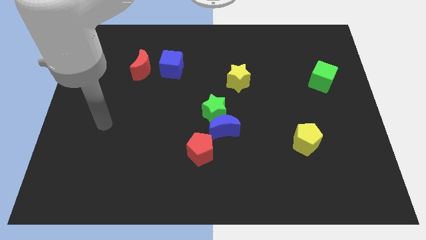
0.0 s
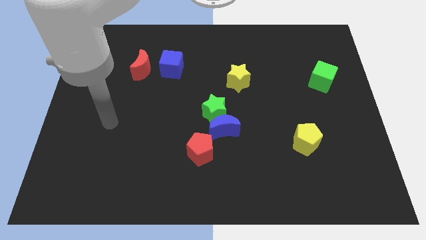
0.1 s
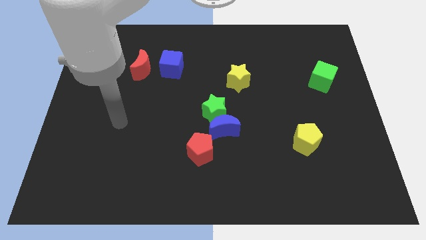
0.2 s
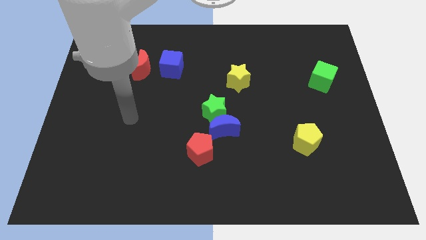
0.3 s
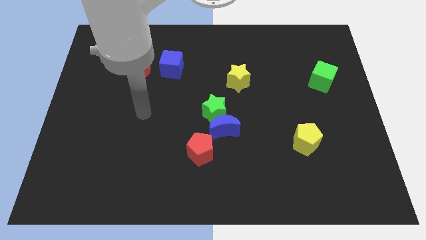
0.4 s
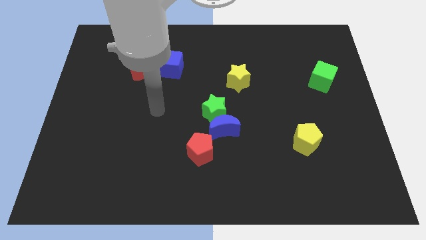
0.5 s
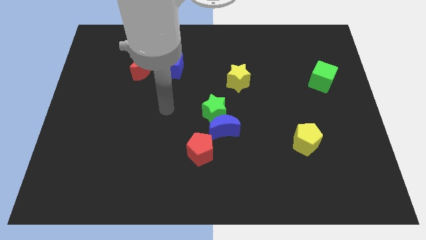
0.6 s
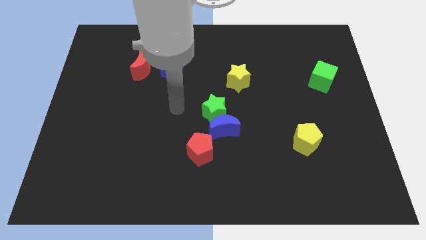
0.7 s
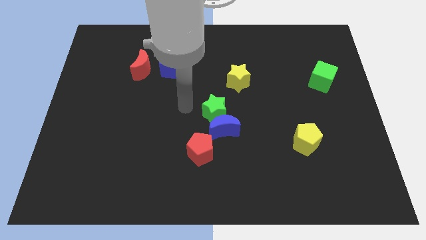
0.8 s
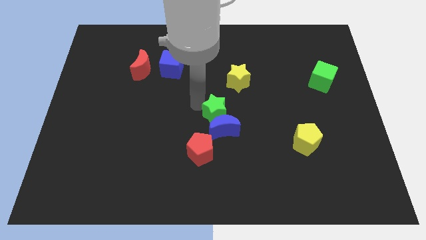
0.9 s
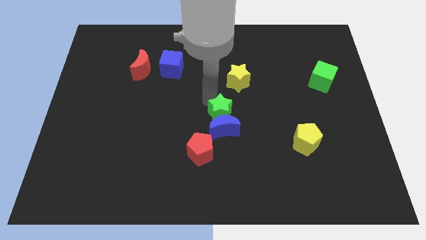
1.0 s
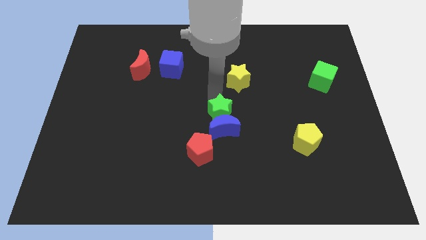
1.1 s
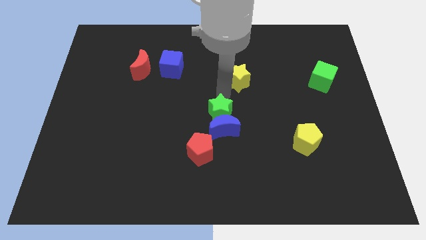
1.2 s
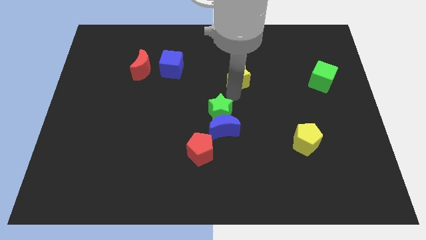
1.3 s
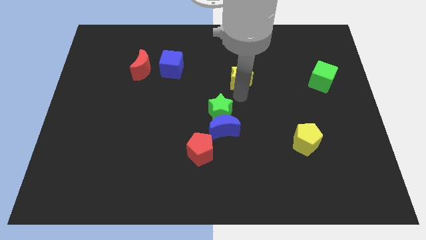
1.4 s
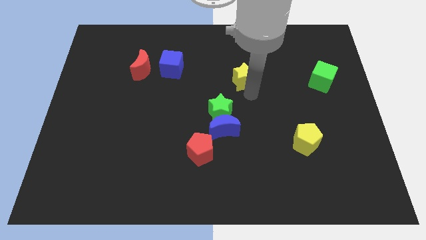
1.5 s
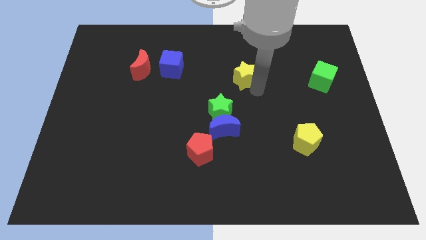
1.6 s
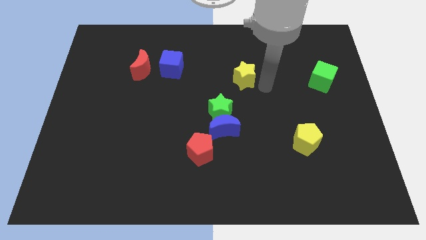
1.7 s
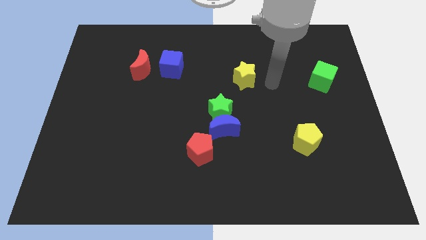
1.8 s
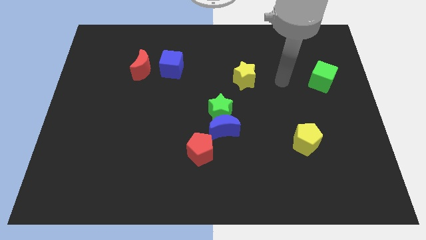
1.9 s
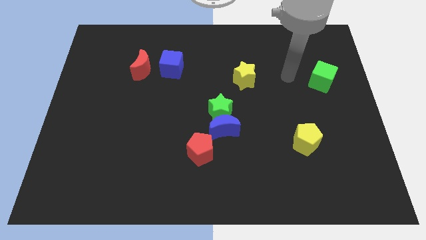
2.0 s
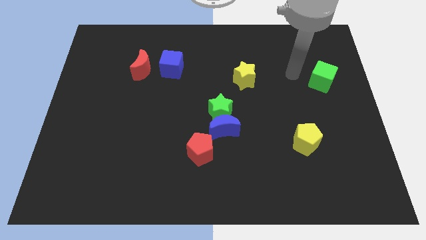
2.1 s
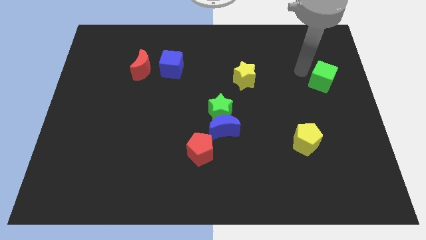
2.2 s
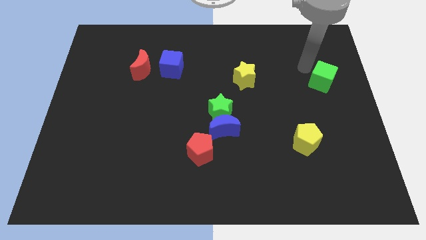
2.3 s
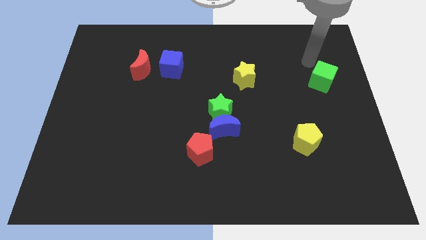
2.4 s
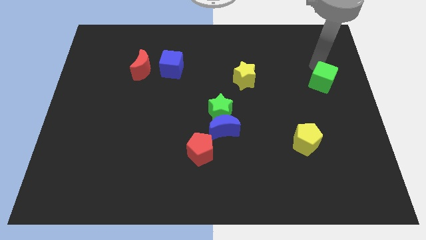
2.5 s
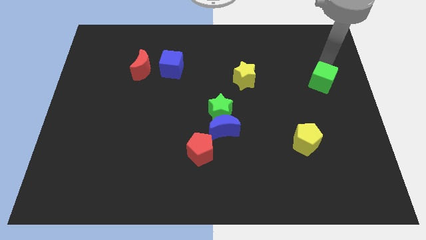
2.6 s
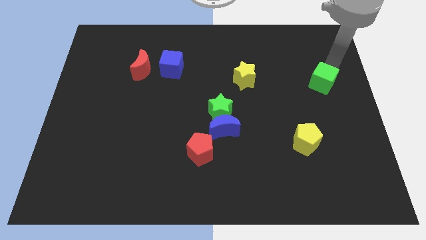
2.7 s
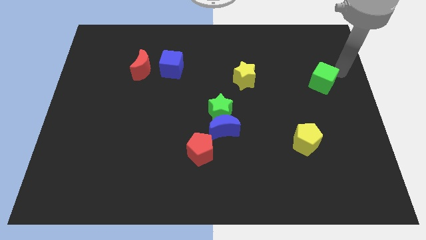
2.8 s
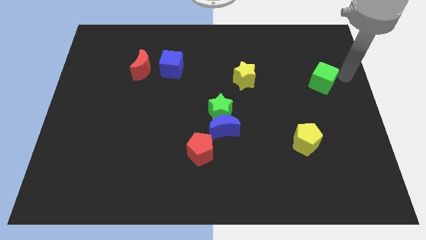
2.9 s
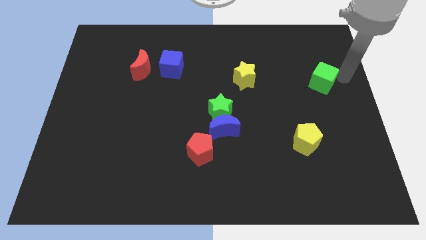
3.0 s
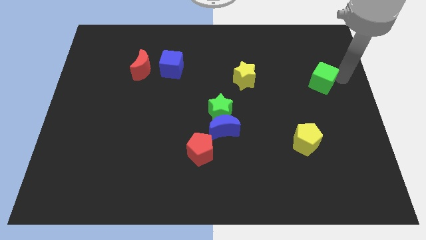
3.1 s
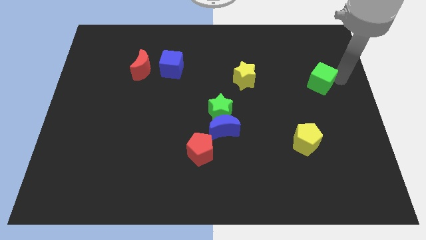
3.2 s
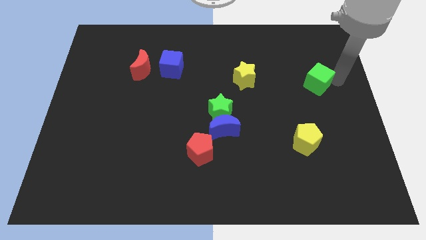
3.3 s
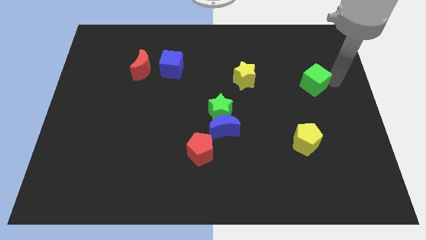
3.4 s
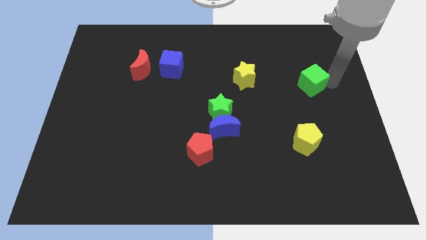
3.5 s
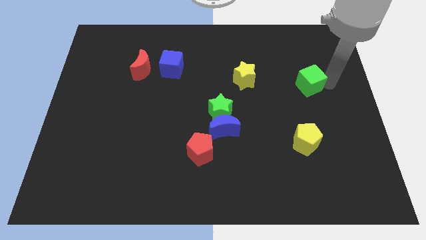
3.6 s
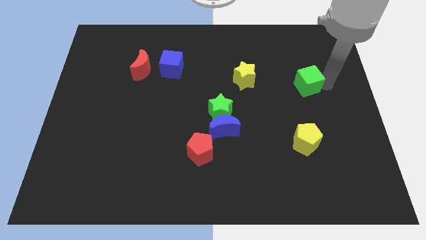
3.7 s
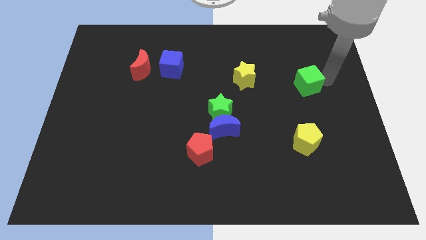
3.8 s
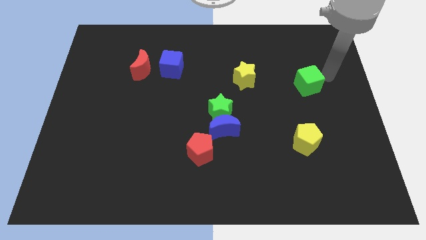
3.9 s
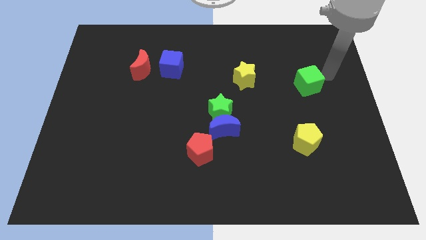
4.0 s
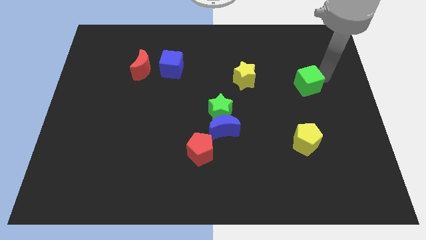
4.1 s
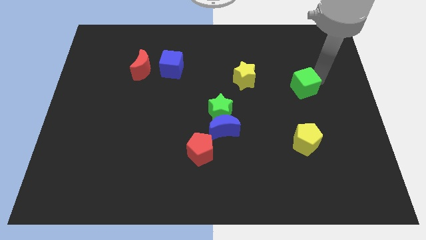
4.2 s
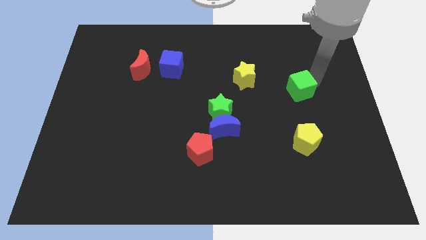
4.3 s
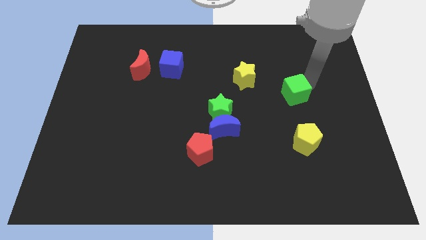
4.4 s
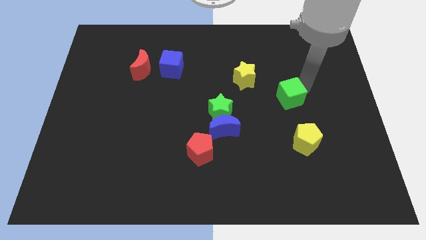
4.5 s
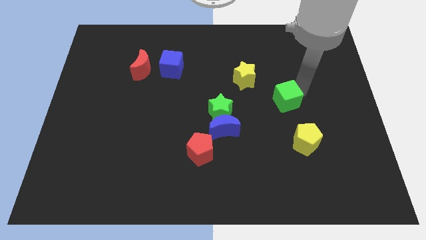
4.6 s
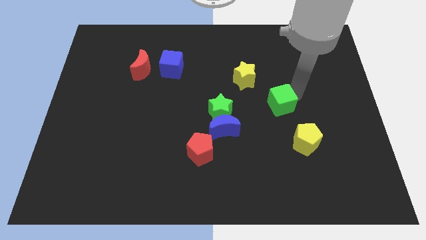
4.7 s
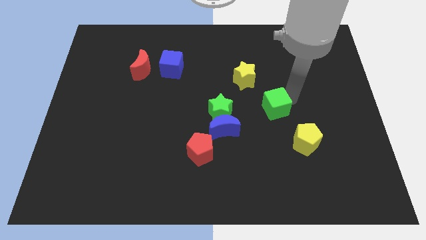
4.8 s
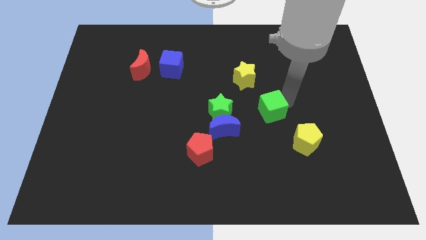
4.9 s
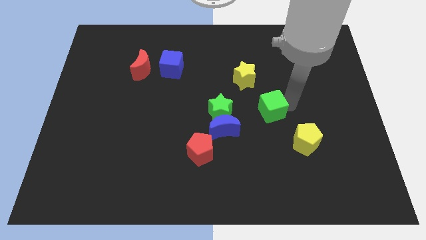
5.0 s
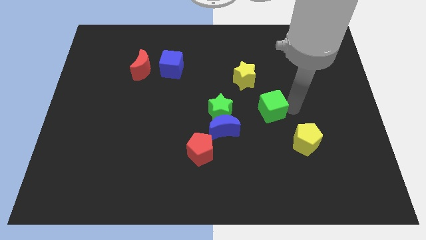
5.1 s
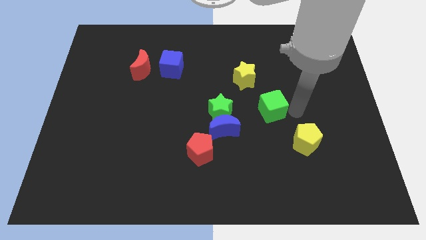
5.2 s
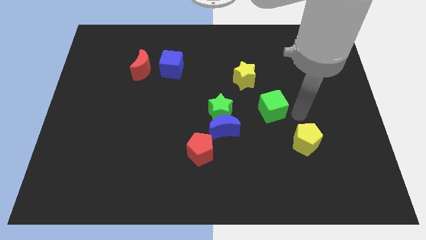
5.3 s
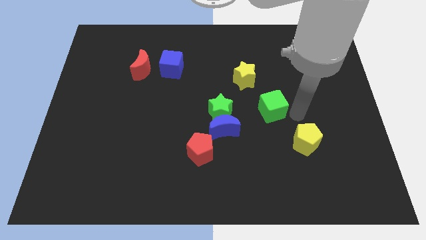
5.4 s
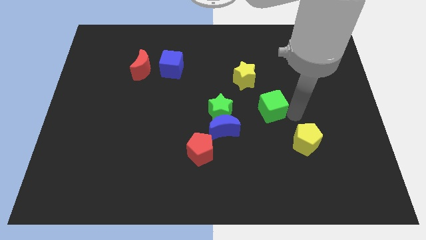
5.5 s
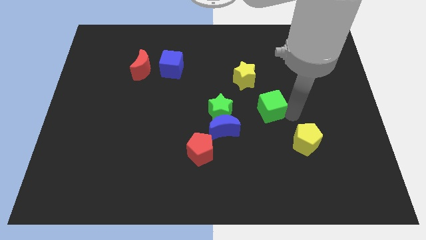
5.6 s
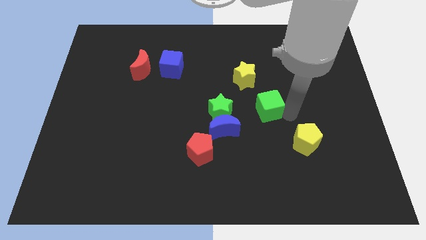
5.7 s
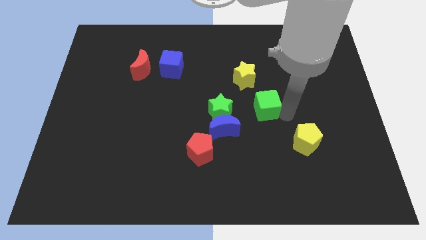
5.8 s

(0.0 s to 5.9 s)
move the green cube to the bottom of the yellow star

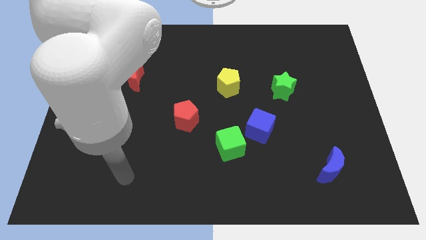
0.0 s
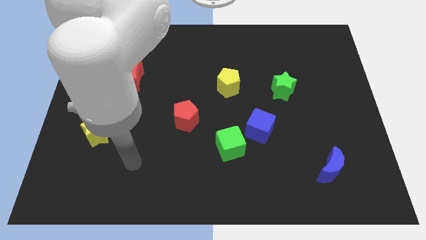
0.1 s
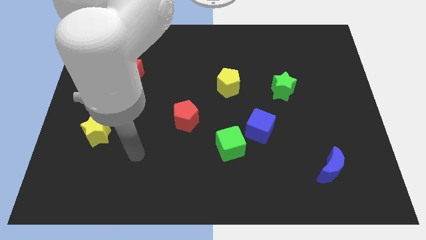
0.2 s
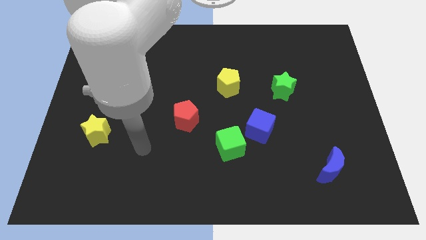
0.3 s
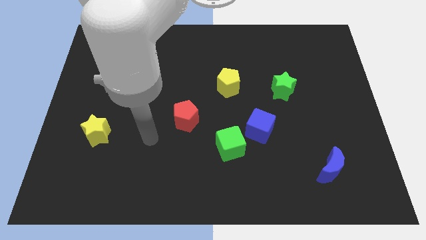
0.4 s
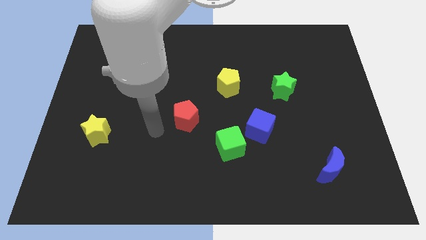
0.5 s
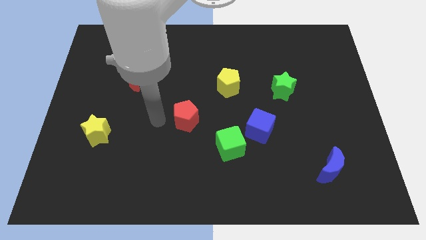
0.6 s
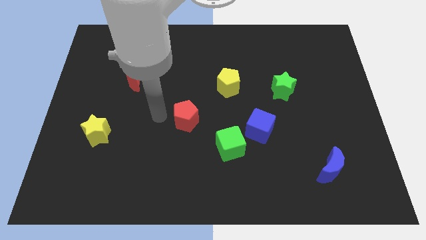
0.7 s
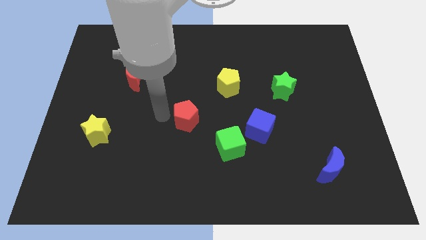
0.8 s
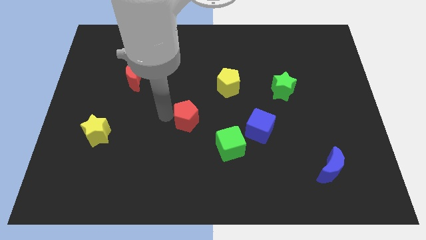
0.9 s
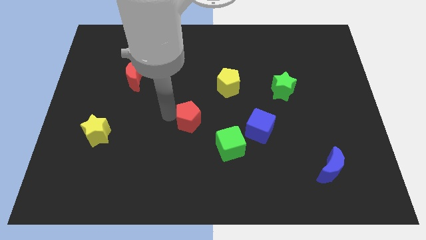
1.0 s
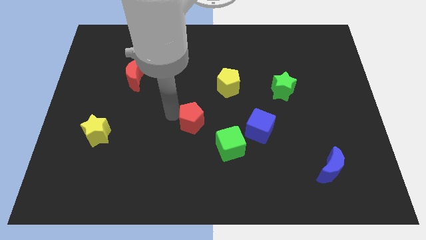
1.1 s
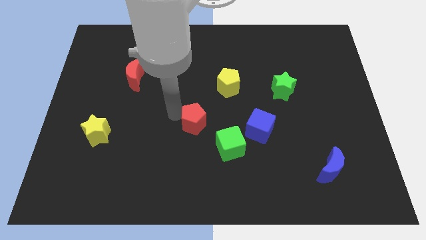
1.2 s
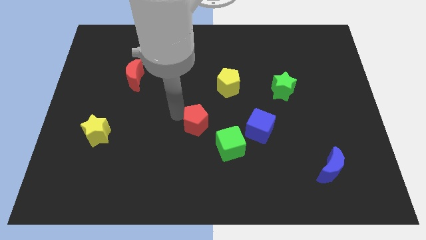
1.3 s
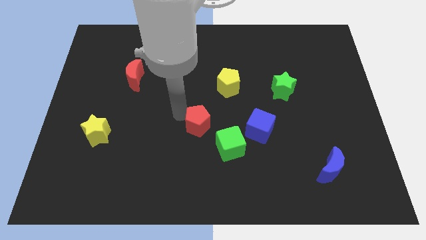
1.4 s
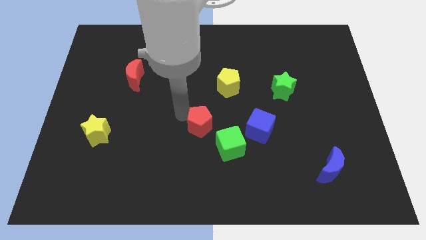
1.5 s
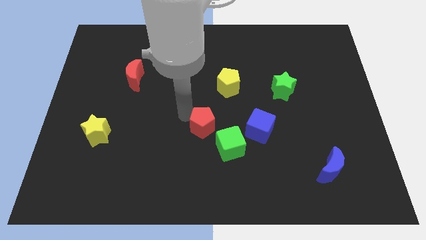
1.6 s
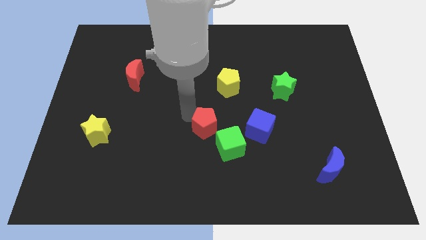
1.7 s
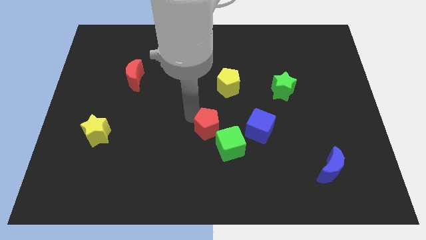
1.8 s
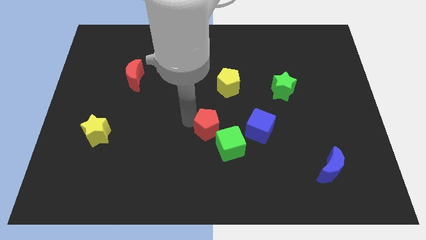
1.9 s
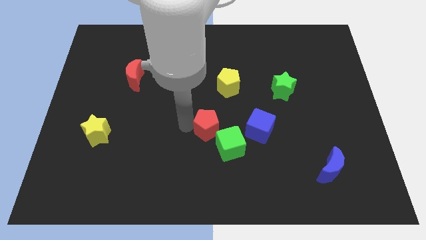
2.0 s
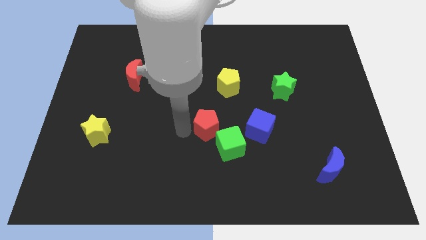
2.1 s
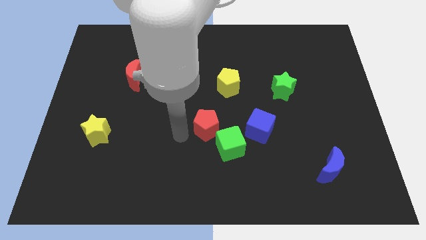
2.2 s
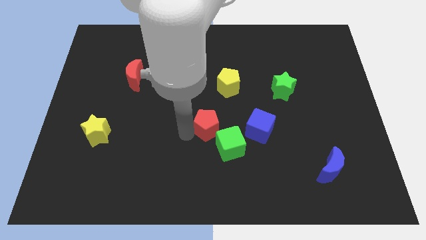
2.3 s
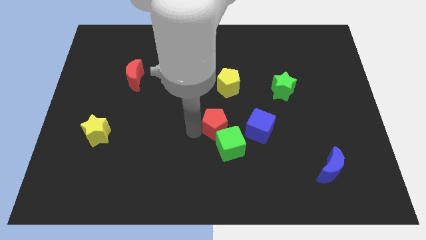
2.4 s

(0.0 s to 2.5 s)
push the red pentagon below the yellow pentagon
